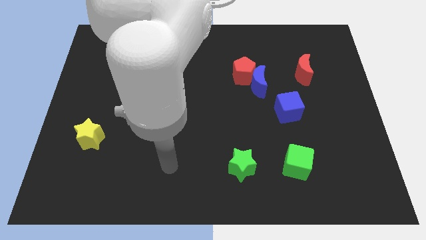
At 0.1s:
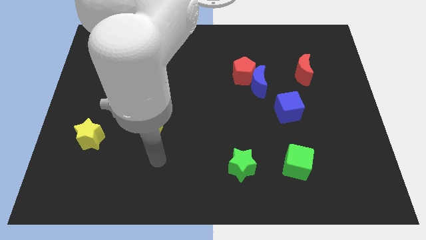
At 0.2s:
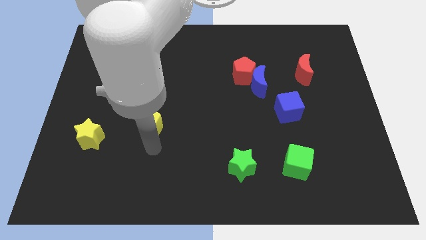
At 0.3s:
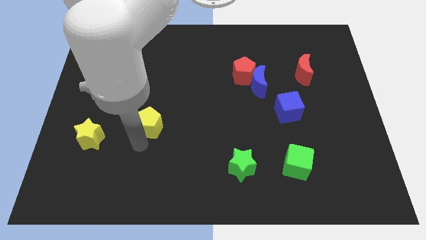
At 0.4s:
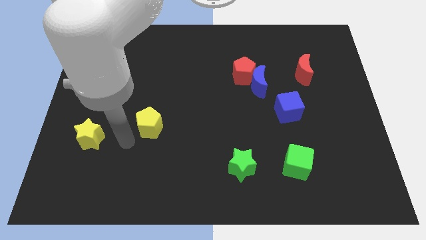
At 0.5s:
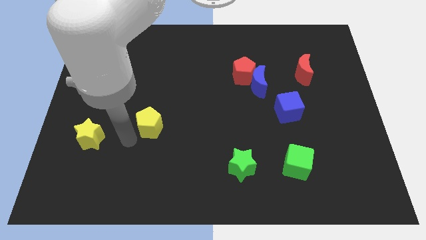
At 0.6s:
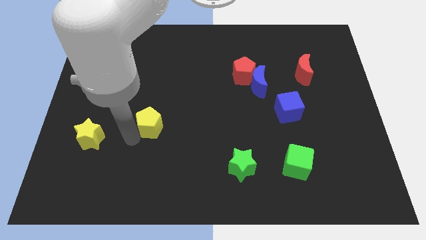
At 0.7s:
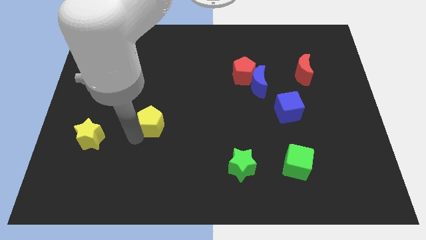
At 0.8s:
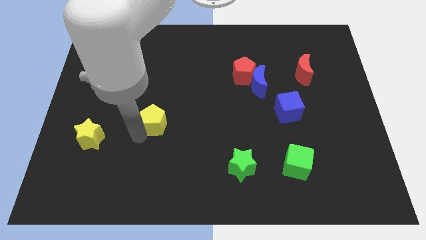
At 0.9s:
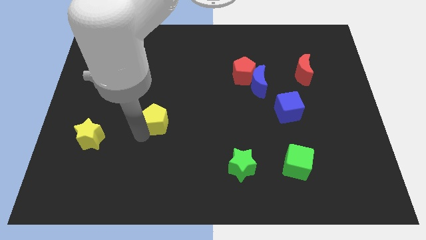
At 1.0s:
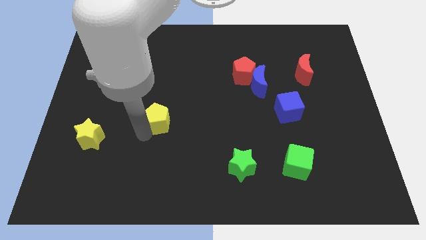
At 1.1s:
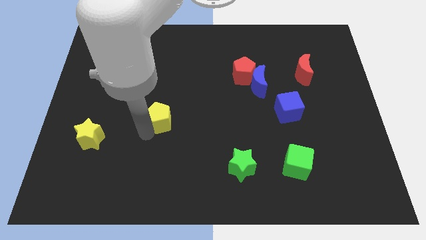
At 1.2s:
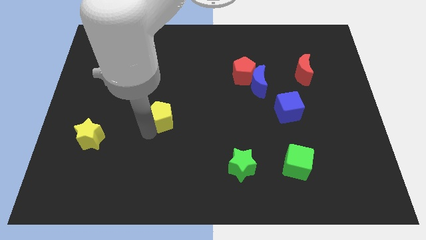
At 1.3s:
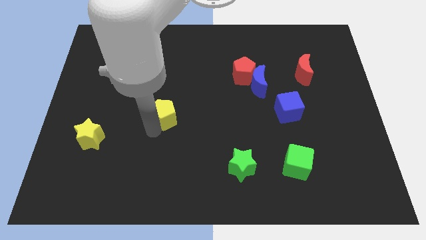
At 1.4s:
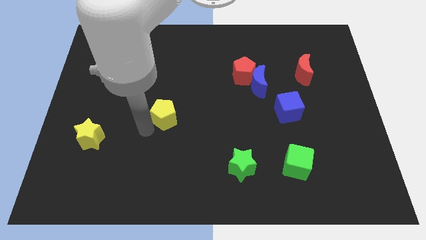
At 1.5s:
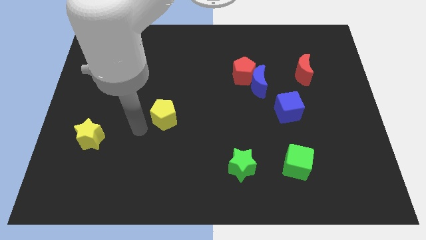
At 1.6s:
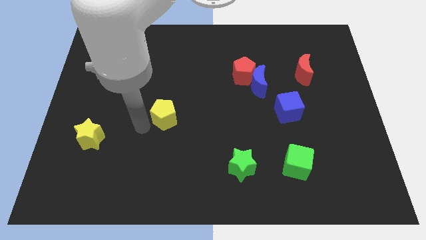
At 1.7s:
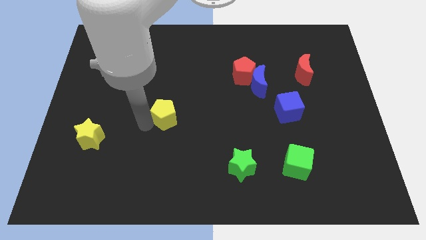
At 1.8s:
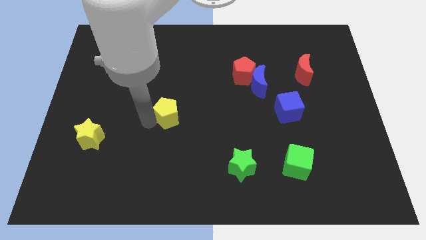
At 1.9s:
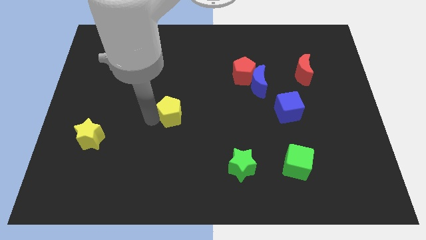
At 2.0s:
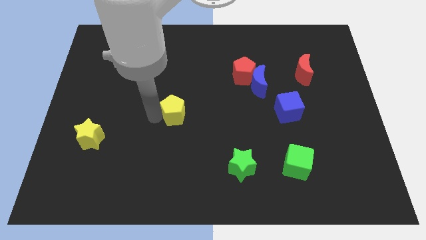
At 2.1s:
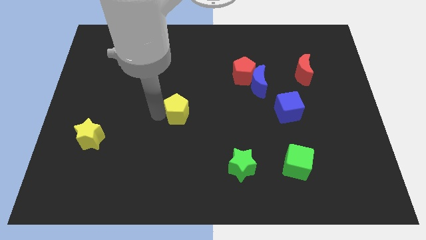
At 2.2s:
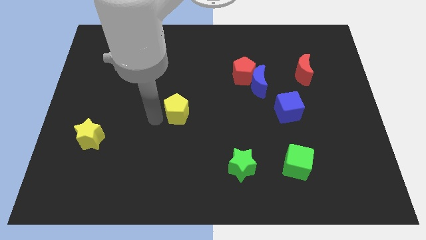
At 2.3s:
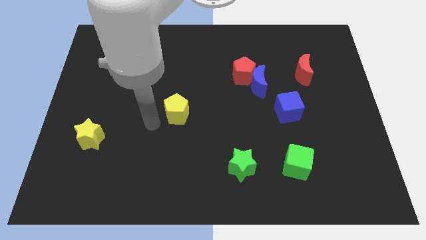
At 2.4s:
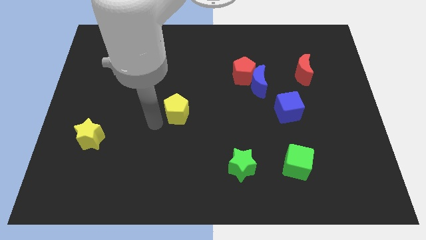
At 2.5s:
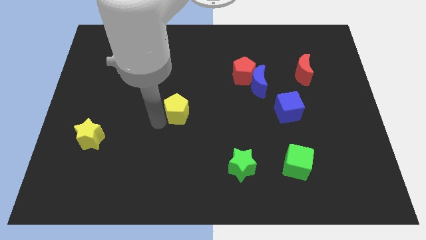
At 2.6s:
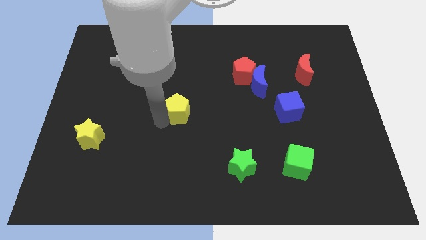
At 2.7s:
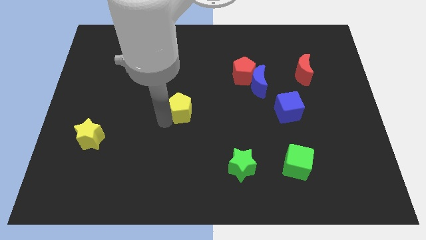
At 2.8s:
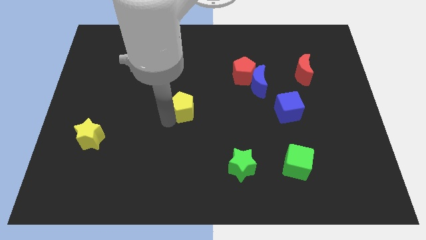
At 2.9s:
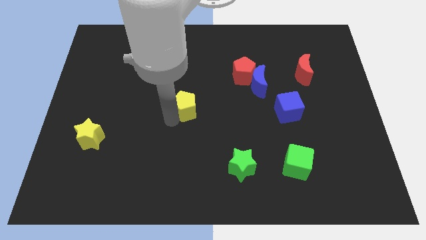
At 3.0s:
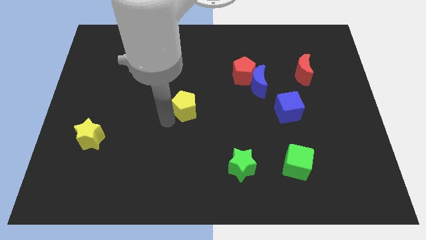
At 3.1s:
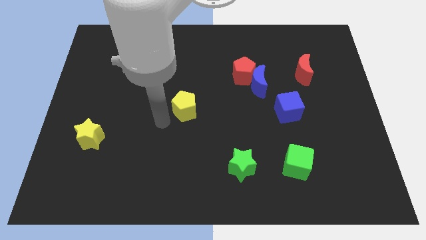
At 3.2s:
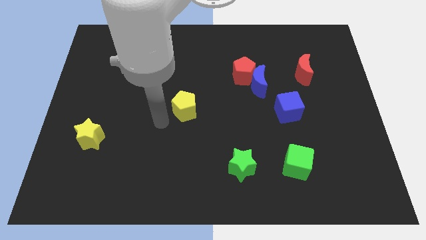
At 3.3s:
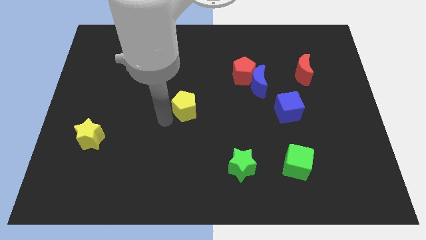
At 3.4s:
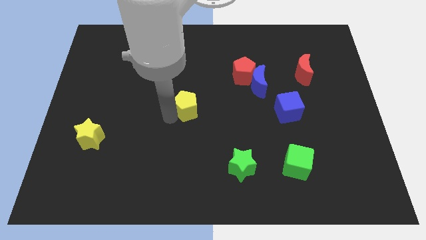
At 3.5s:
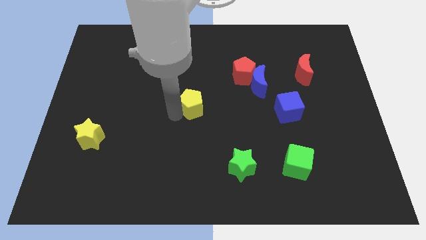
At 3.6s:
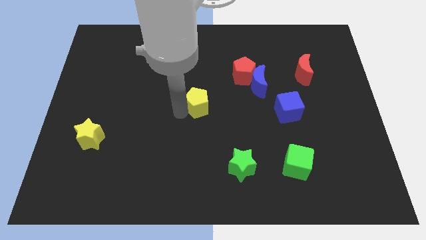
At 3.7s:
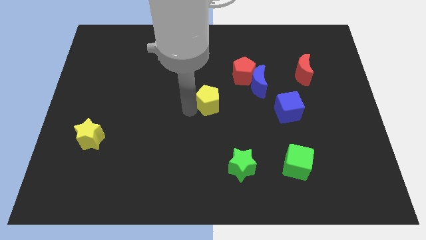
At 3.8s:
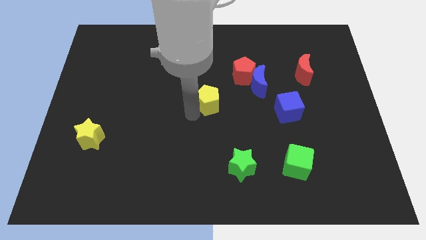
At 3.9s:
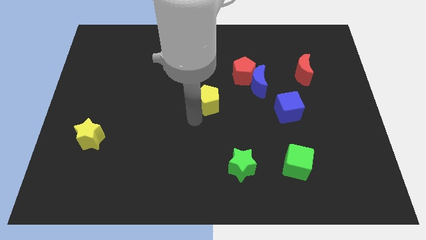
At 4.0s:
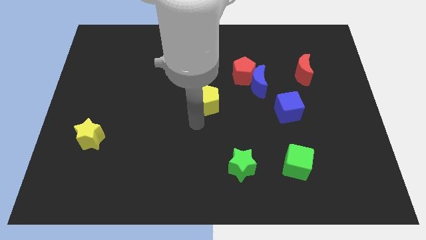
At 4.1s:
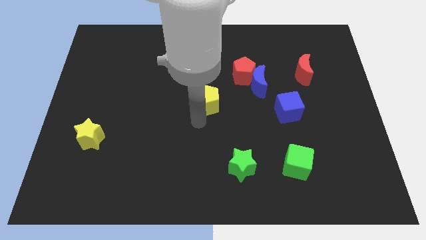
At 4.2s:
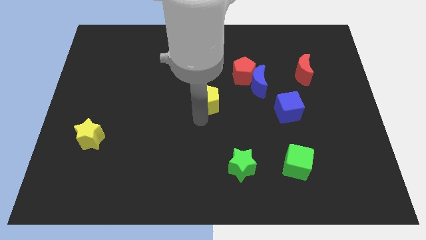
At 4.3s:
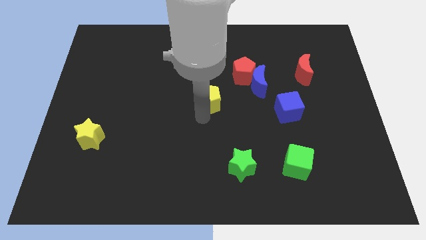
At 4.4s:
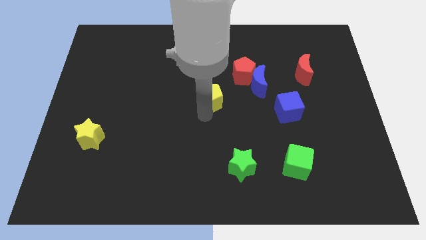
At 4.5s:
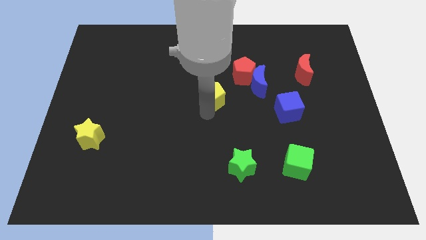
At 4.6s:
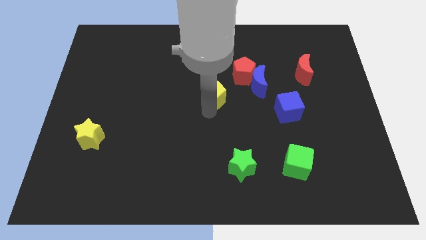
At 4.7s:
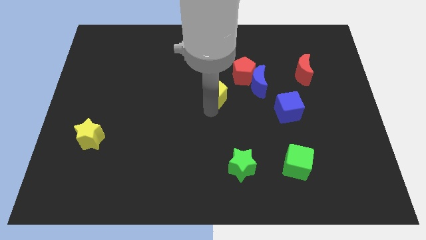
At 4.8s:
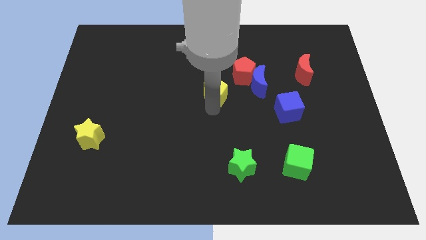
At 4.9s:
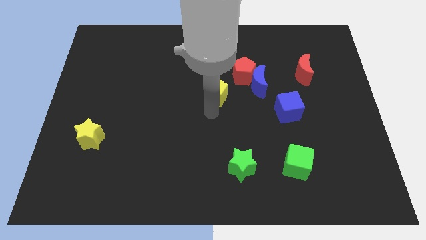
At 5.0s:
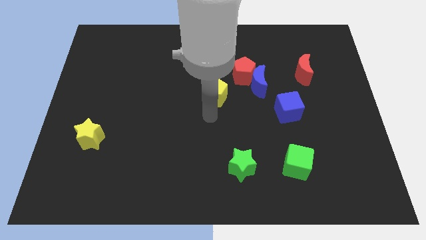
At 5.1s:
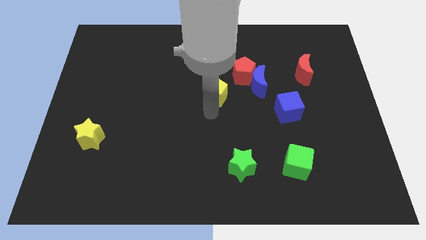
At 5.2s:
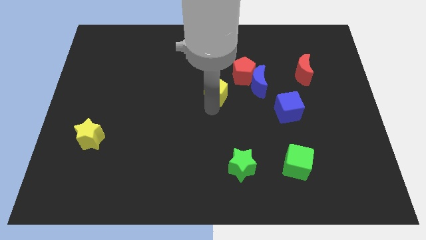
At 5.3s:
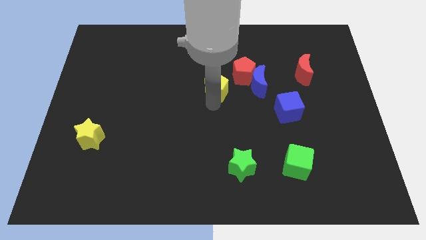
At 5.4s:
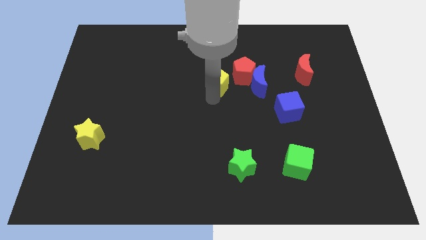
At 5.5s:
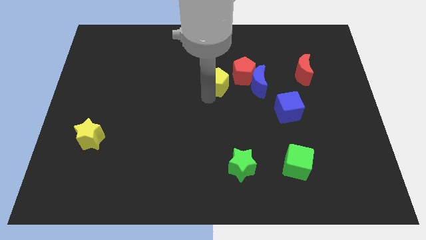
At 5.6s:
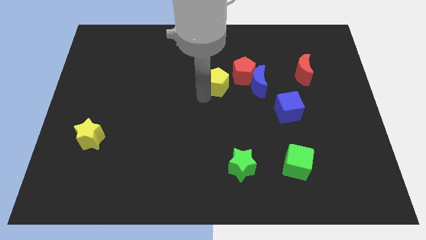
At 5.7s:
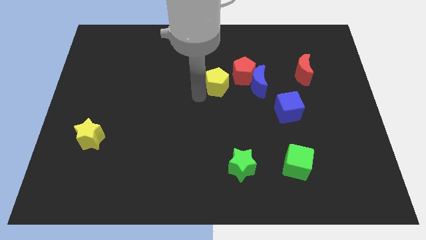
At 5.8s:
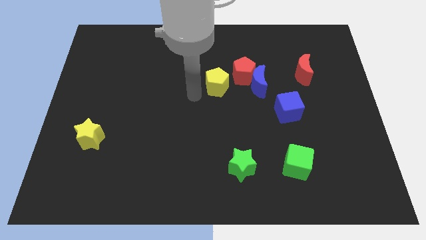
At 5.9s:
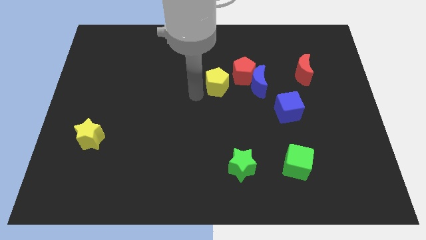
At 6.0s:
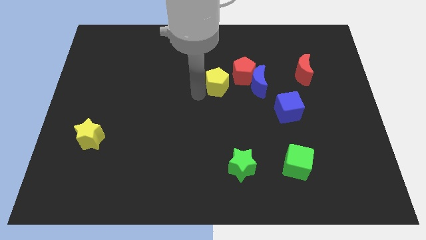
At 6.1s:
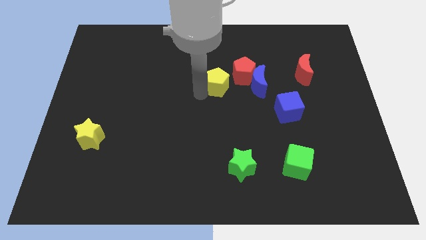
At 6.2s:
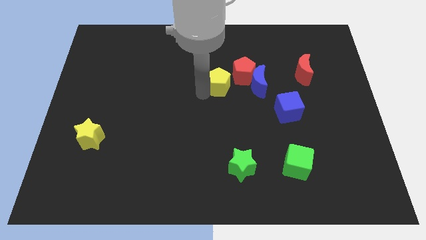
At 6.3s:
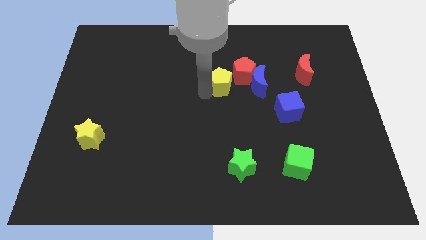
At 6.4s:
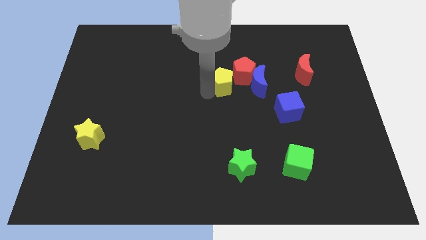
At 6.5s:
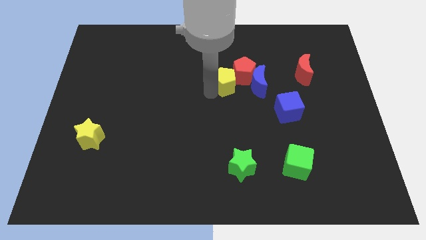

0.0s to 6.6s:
slide the yellow pentagon next to the red pentagon

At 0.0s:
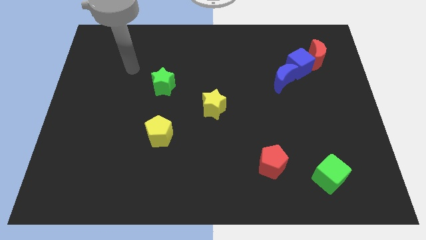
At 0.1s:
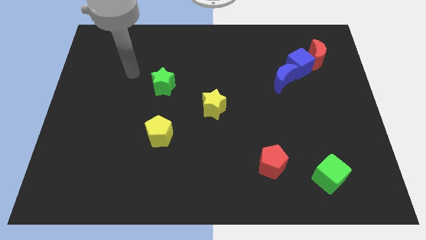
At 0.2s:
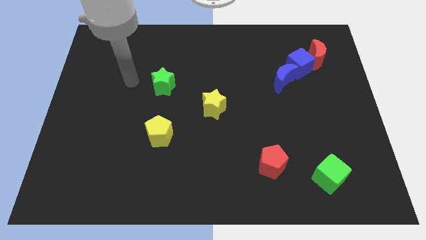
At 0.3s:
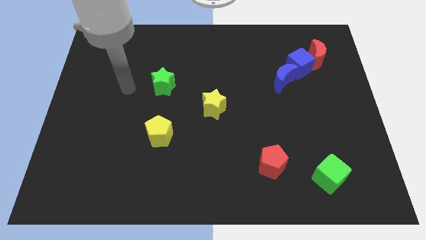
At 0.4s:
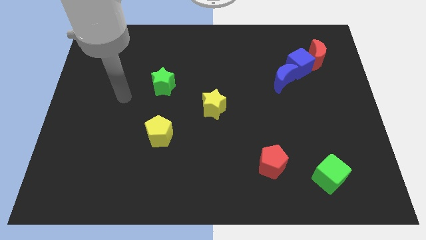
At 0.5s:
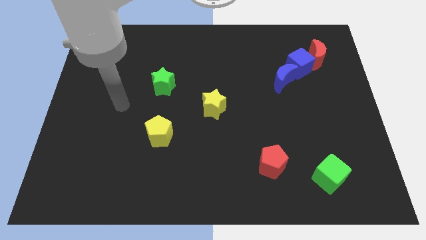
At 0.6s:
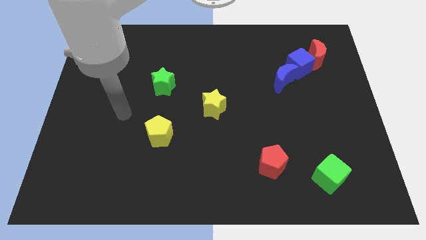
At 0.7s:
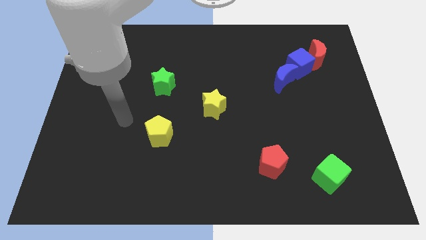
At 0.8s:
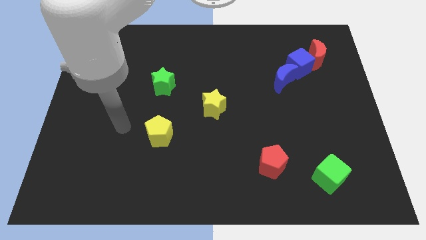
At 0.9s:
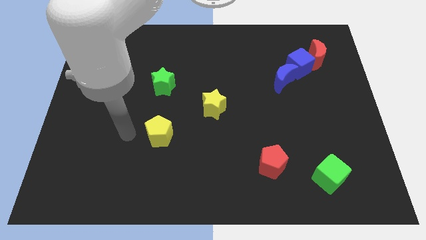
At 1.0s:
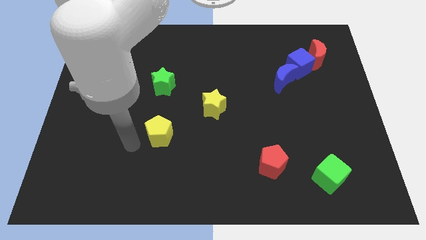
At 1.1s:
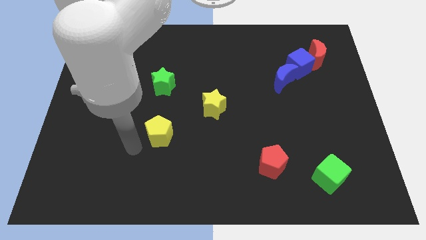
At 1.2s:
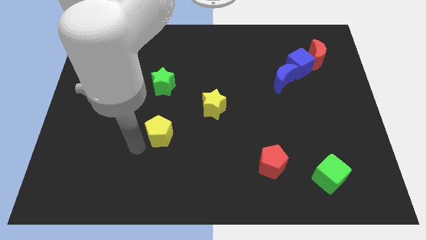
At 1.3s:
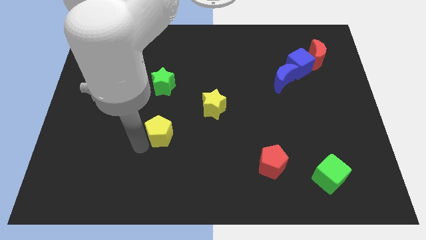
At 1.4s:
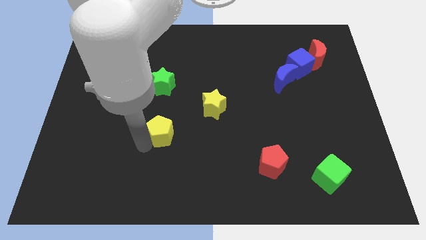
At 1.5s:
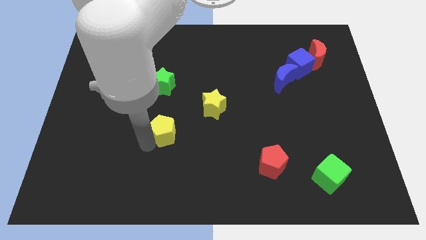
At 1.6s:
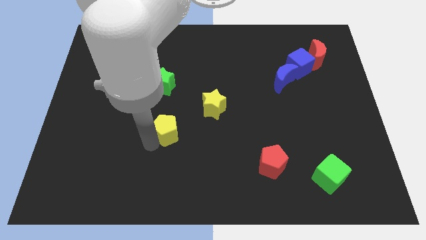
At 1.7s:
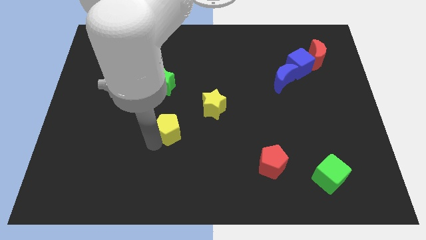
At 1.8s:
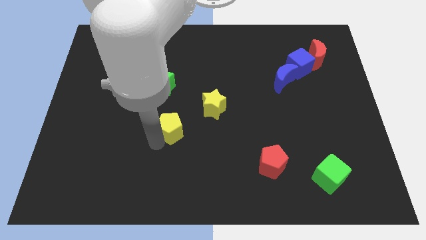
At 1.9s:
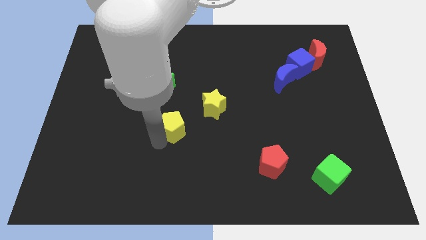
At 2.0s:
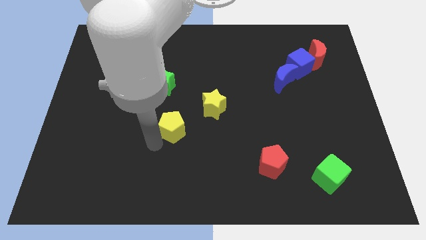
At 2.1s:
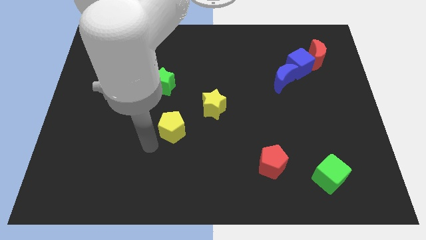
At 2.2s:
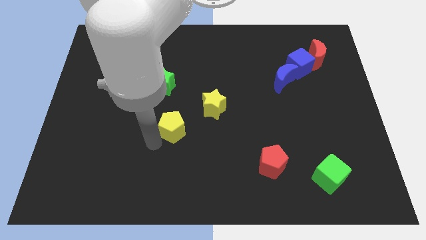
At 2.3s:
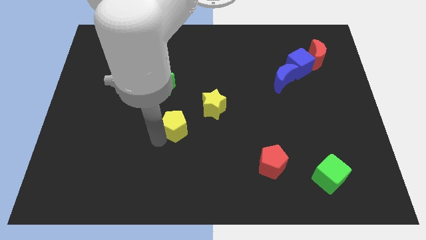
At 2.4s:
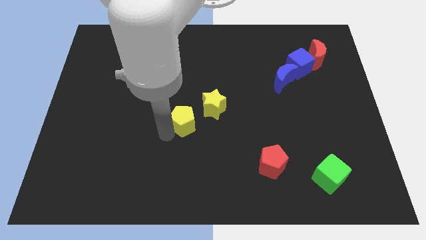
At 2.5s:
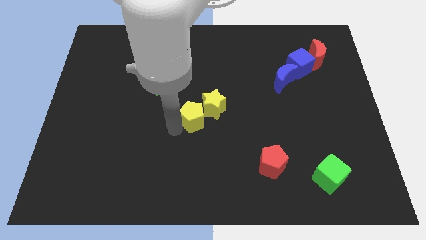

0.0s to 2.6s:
push the yellow pentagon close to the yellow star
